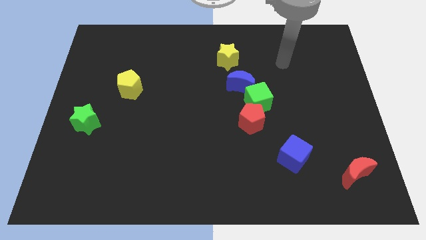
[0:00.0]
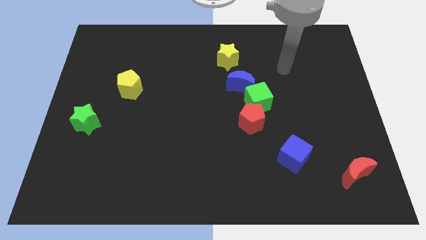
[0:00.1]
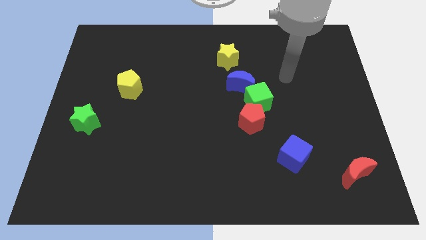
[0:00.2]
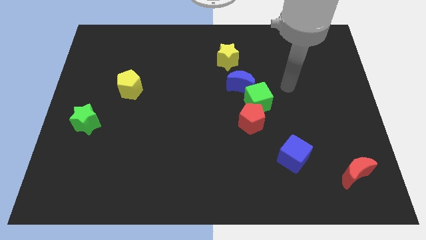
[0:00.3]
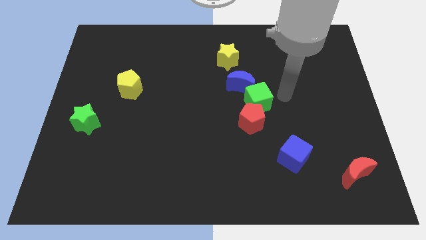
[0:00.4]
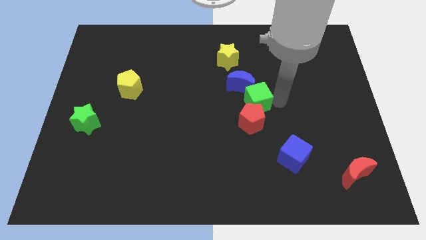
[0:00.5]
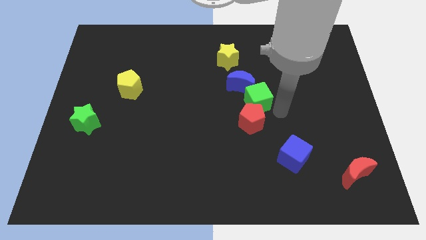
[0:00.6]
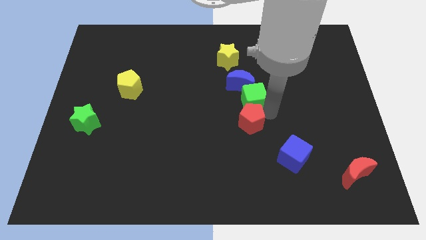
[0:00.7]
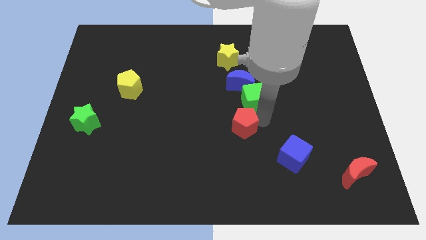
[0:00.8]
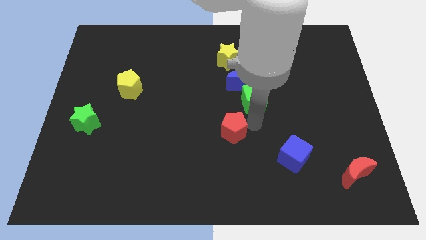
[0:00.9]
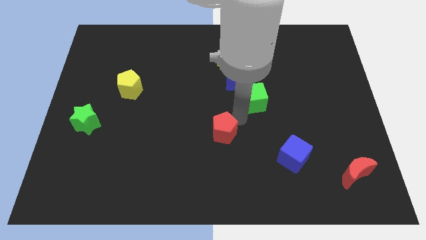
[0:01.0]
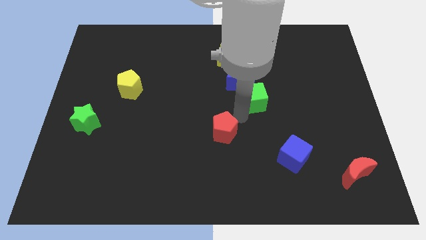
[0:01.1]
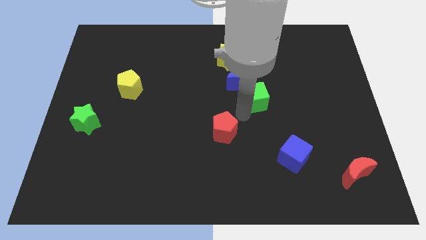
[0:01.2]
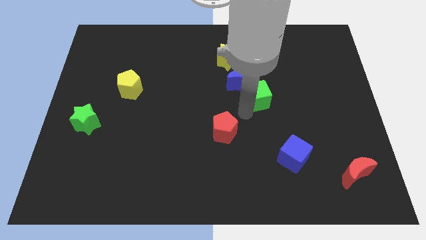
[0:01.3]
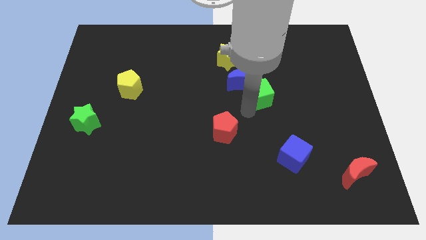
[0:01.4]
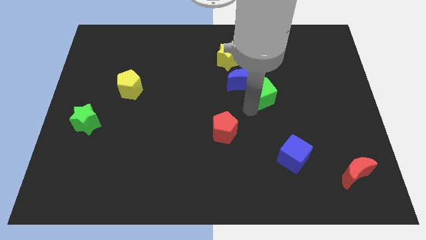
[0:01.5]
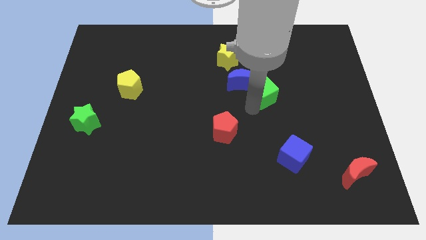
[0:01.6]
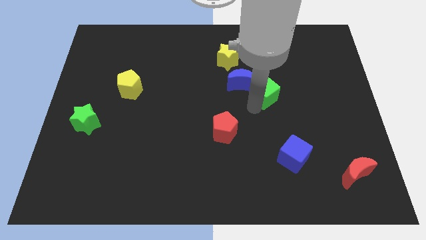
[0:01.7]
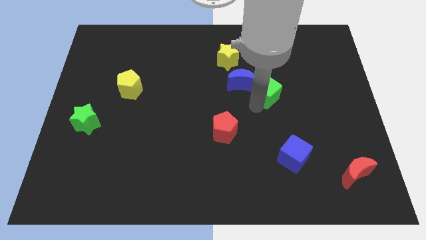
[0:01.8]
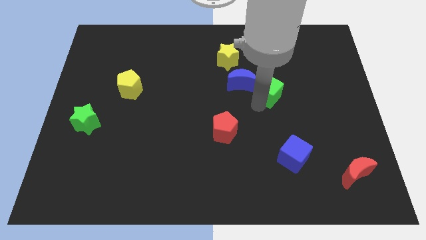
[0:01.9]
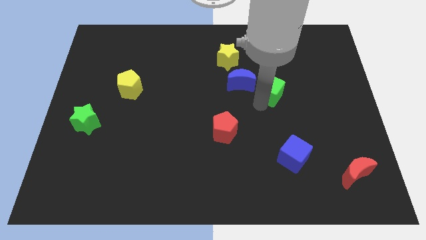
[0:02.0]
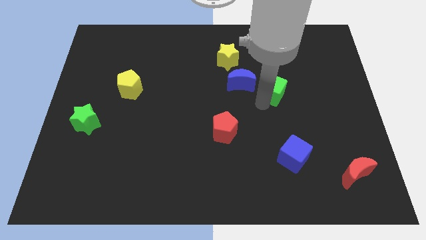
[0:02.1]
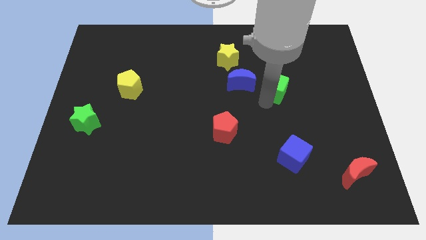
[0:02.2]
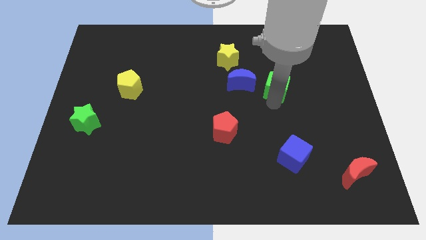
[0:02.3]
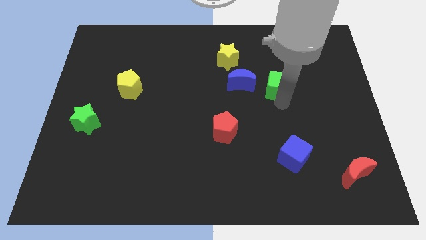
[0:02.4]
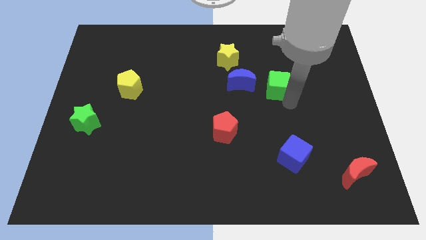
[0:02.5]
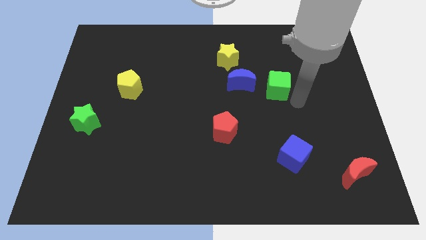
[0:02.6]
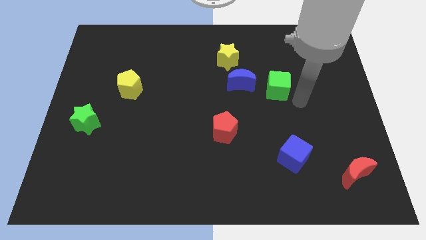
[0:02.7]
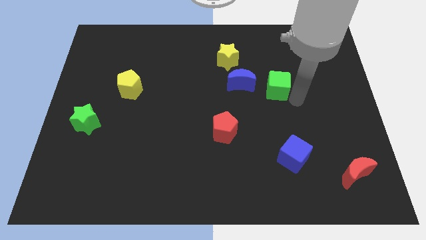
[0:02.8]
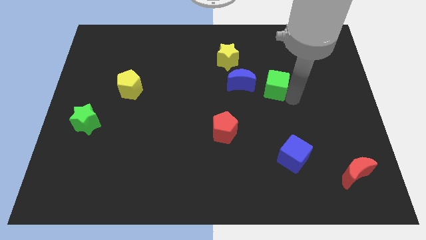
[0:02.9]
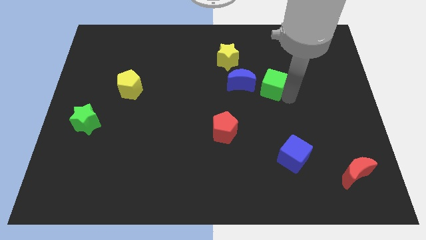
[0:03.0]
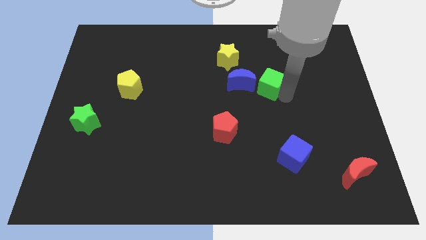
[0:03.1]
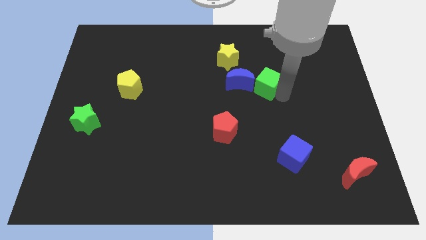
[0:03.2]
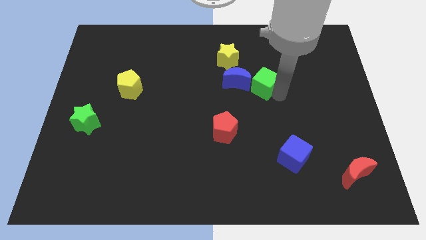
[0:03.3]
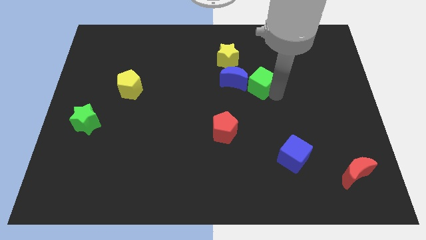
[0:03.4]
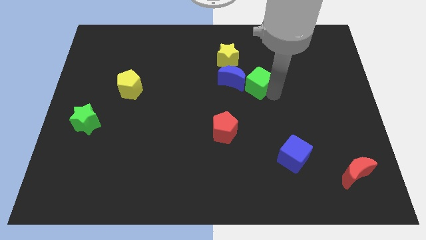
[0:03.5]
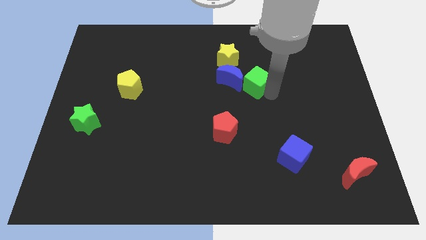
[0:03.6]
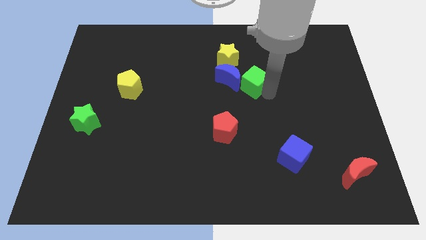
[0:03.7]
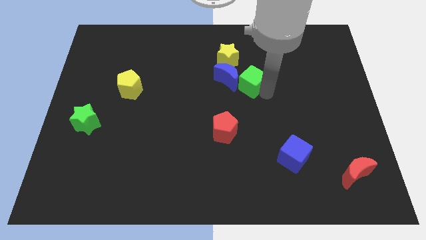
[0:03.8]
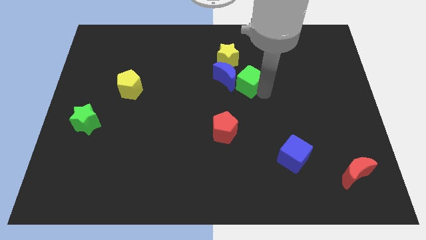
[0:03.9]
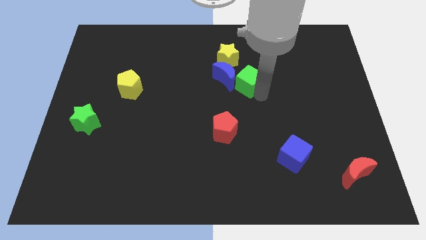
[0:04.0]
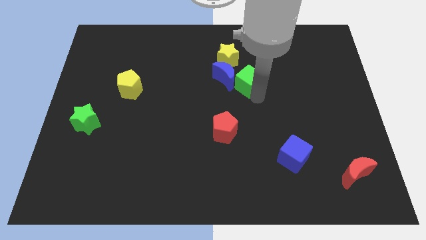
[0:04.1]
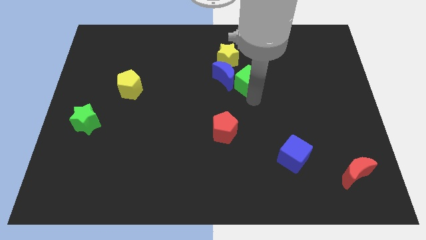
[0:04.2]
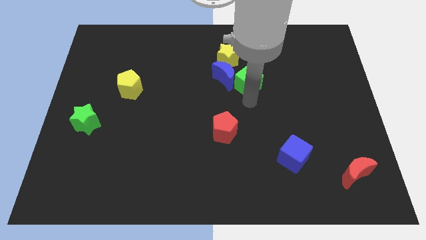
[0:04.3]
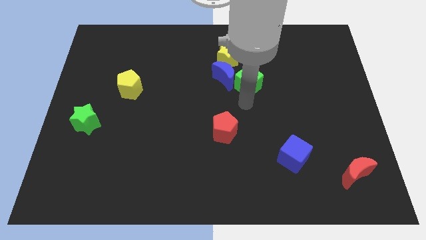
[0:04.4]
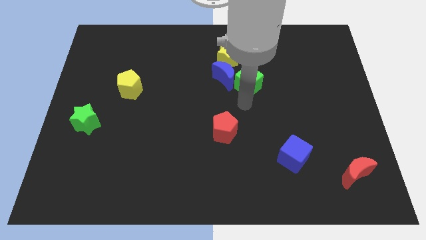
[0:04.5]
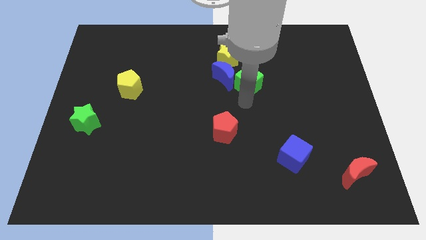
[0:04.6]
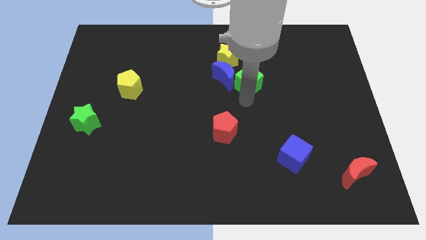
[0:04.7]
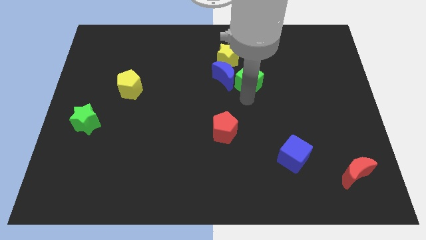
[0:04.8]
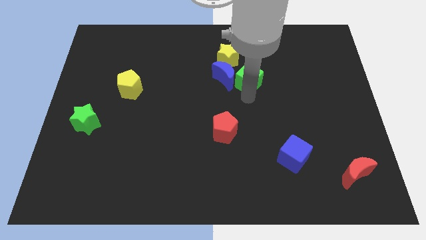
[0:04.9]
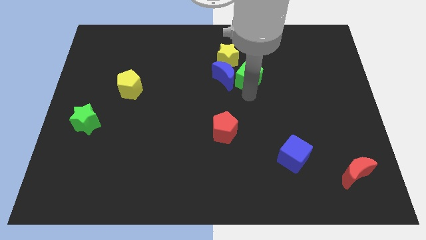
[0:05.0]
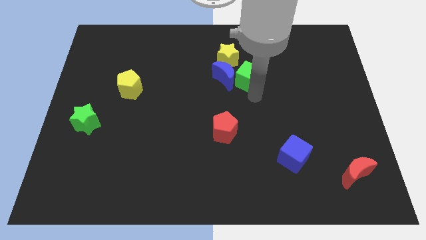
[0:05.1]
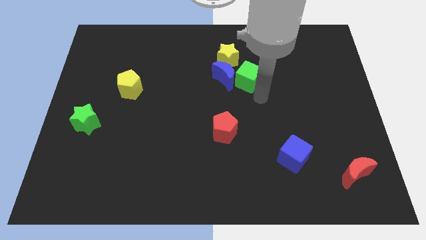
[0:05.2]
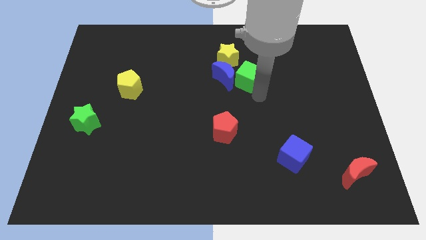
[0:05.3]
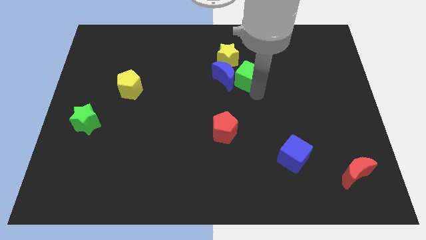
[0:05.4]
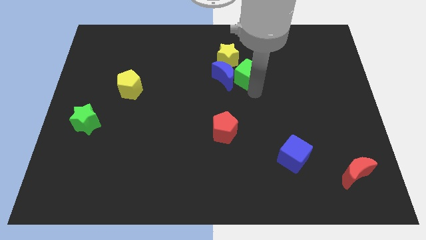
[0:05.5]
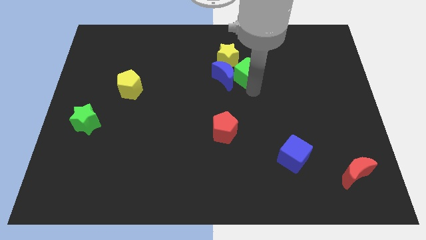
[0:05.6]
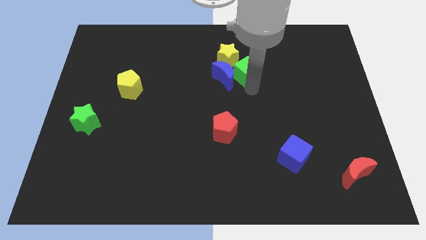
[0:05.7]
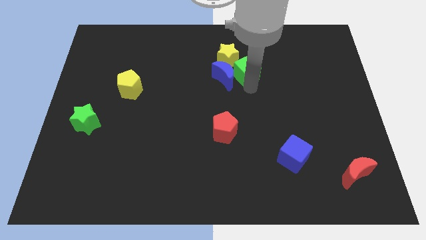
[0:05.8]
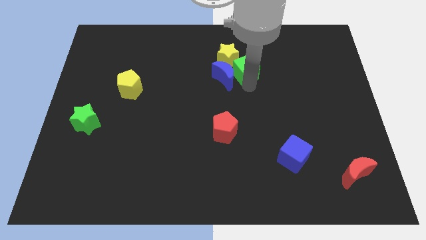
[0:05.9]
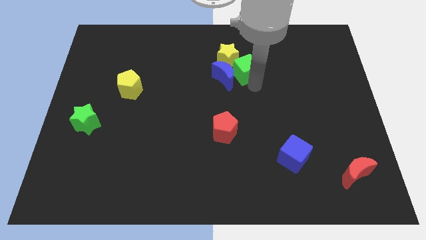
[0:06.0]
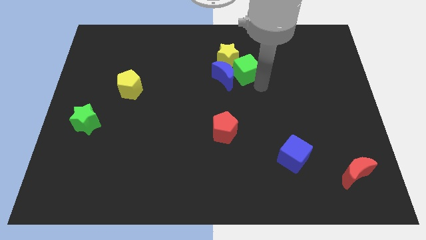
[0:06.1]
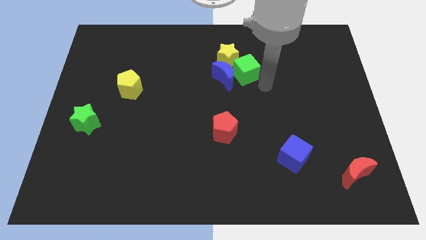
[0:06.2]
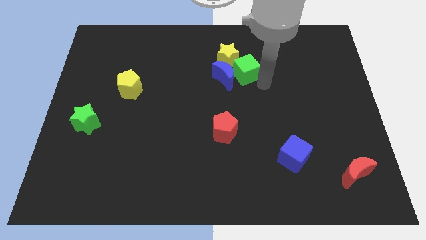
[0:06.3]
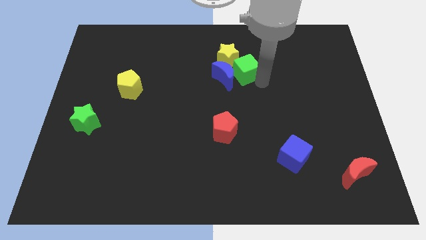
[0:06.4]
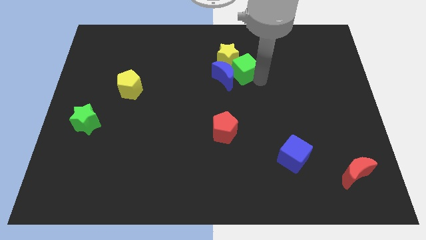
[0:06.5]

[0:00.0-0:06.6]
push the green cube to the yellow star

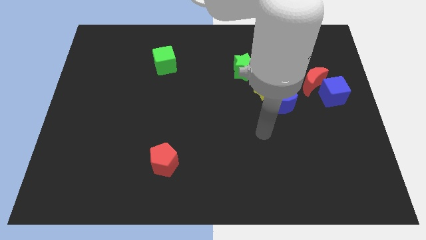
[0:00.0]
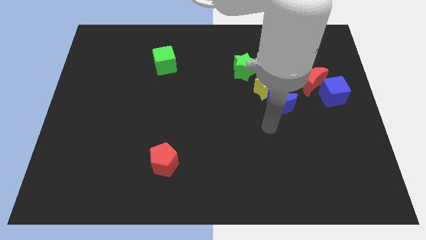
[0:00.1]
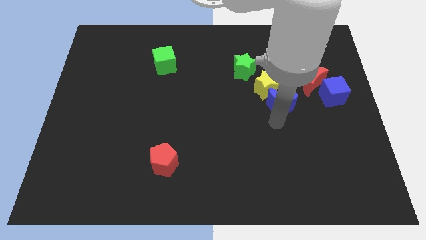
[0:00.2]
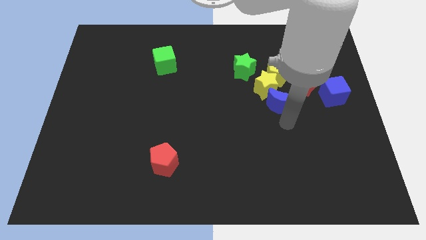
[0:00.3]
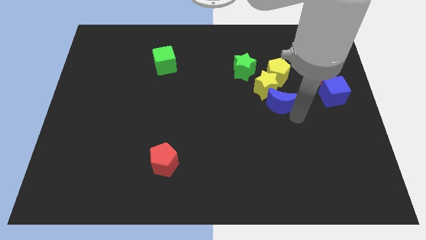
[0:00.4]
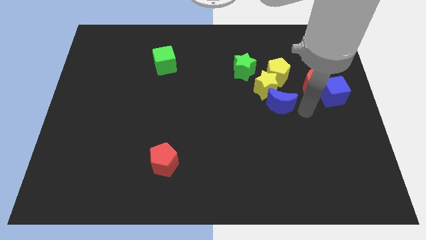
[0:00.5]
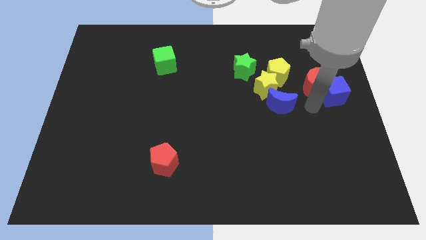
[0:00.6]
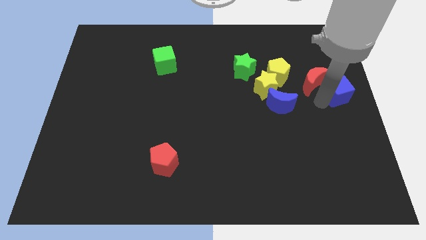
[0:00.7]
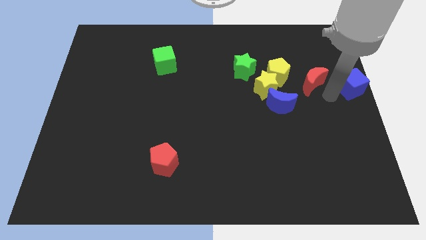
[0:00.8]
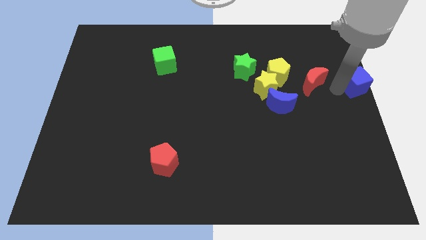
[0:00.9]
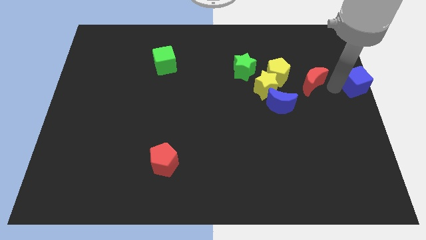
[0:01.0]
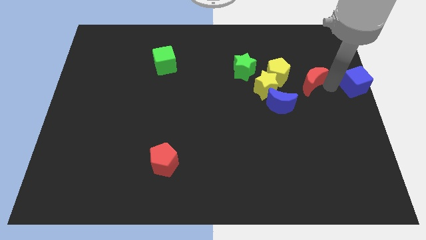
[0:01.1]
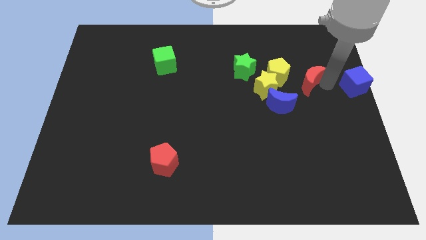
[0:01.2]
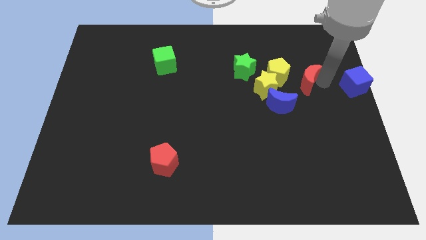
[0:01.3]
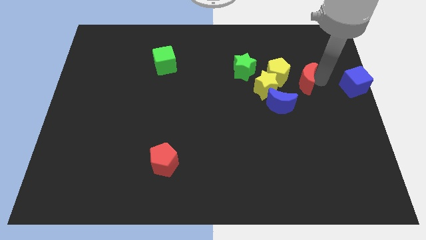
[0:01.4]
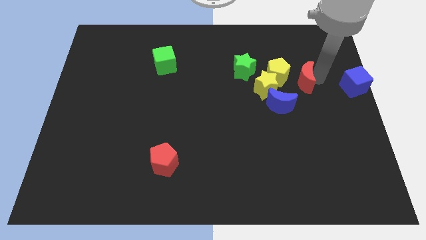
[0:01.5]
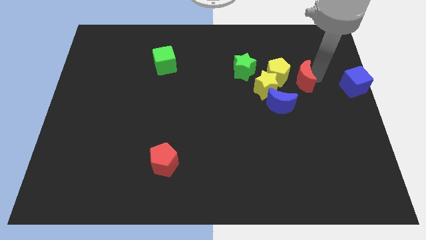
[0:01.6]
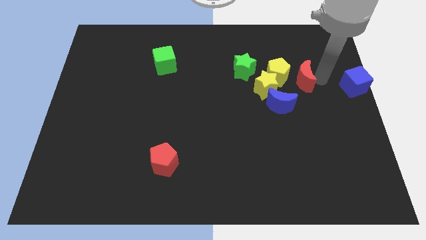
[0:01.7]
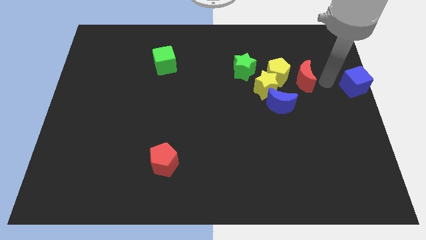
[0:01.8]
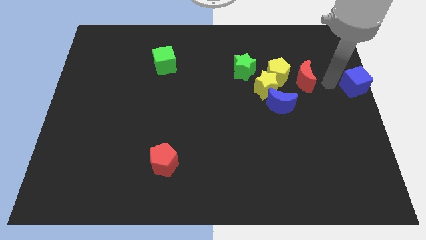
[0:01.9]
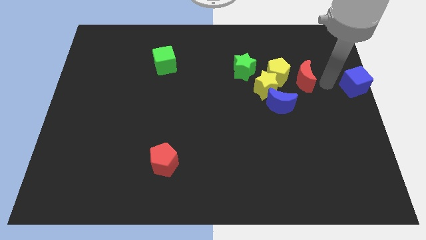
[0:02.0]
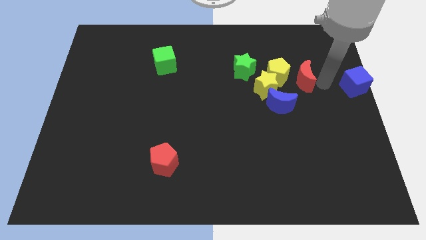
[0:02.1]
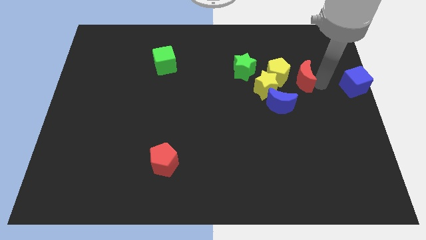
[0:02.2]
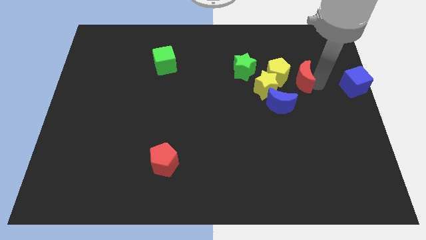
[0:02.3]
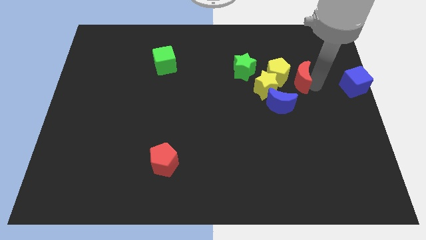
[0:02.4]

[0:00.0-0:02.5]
push the red moon next to the yellow pentagon
